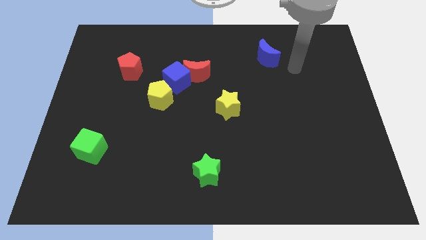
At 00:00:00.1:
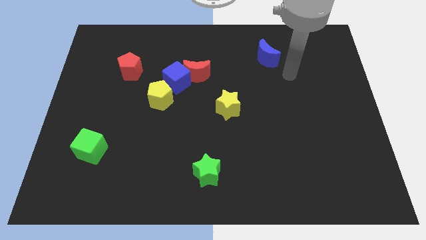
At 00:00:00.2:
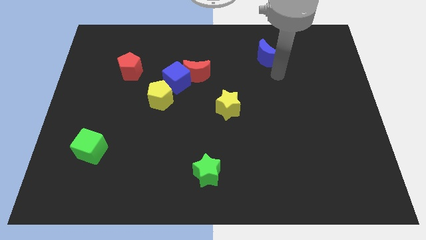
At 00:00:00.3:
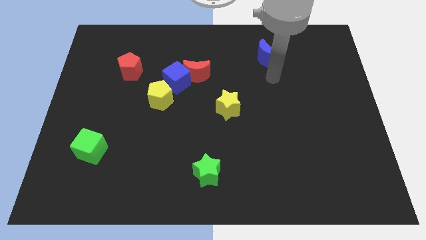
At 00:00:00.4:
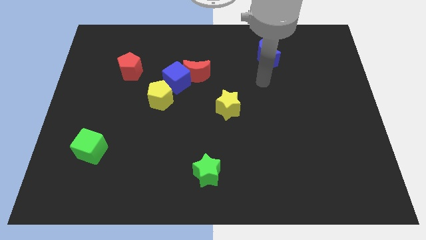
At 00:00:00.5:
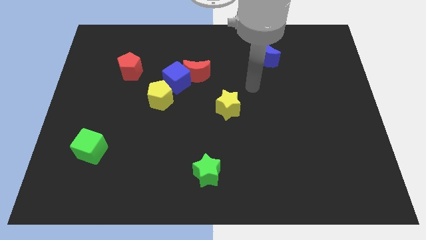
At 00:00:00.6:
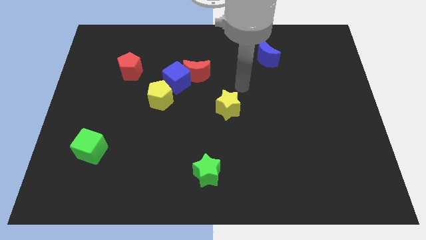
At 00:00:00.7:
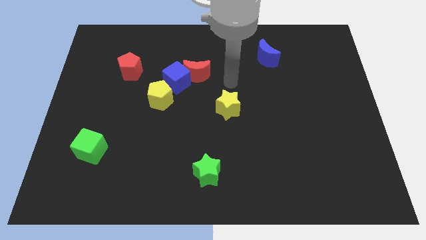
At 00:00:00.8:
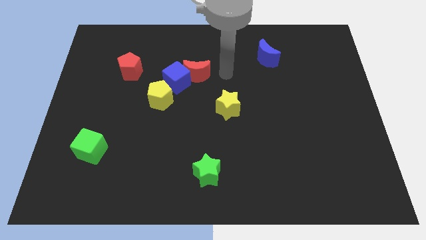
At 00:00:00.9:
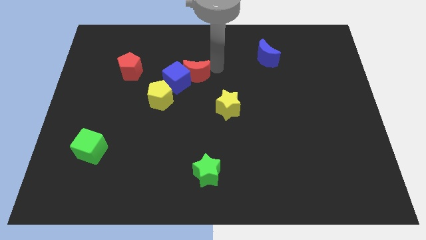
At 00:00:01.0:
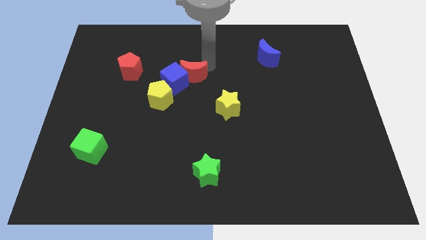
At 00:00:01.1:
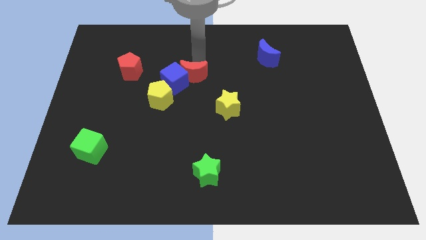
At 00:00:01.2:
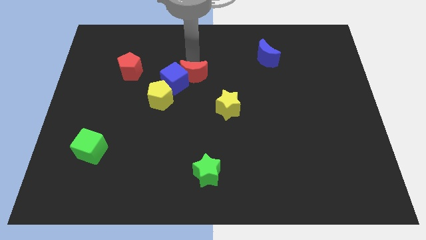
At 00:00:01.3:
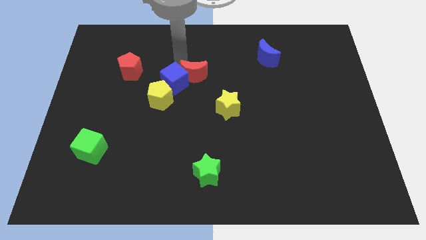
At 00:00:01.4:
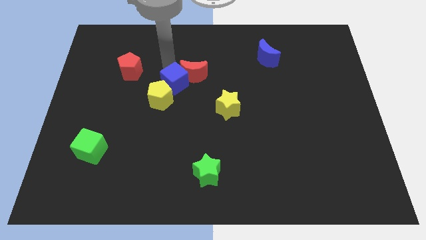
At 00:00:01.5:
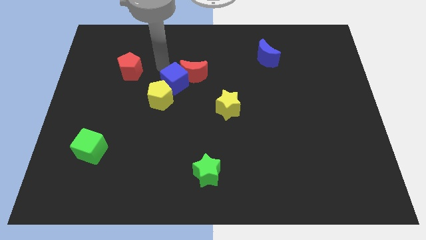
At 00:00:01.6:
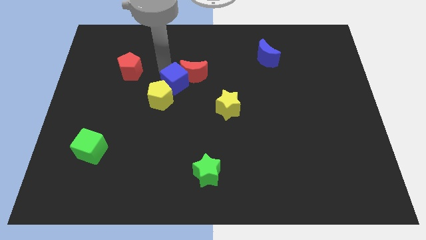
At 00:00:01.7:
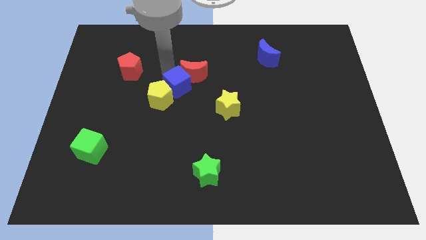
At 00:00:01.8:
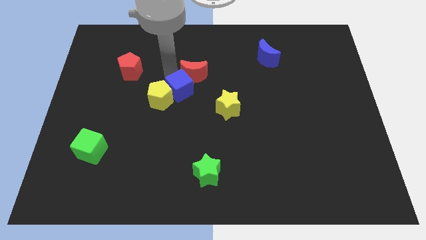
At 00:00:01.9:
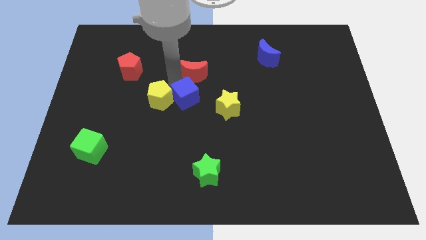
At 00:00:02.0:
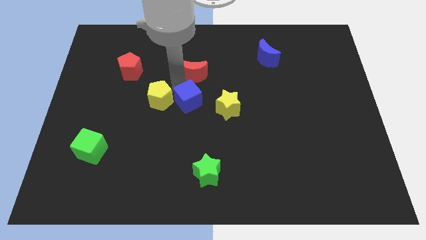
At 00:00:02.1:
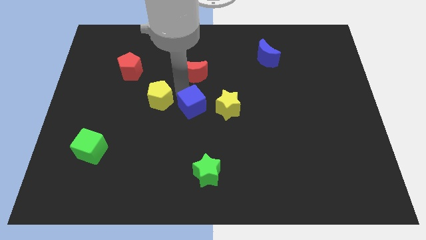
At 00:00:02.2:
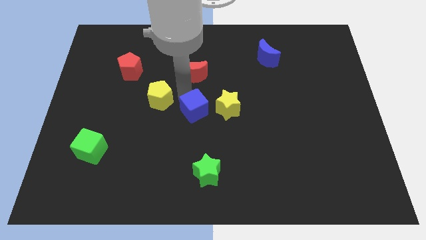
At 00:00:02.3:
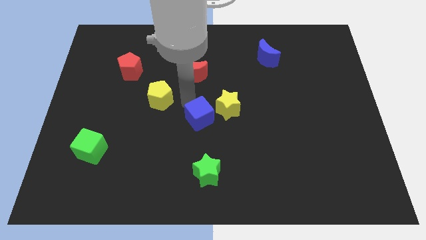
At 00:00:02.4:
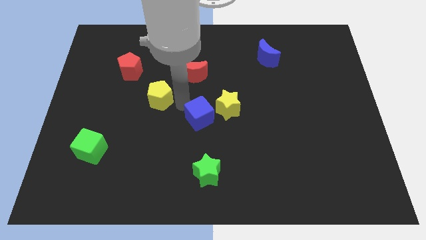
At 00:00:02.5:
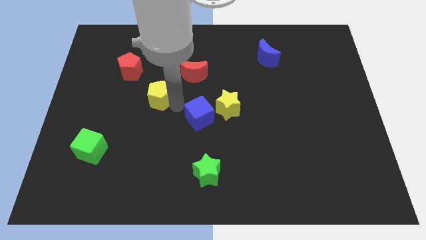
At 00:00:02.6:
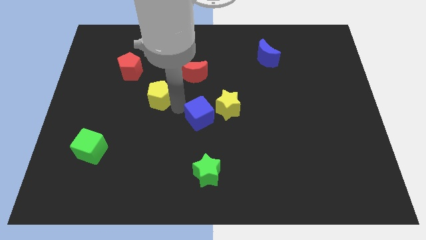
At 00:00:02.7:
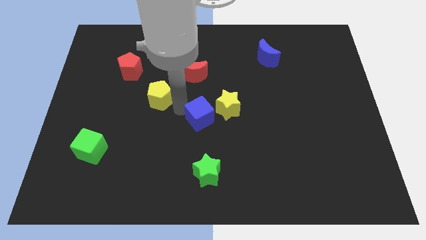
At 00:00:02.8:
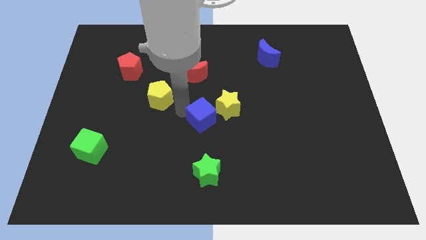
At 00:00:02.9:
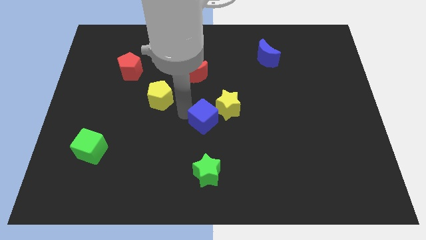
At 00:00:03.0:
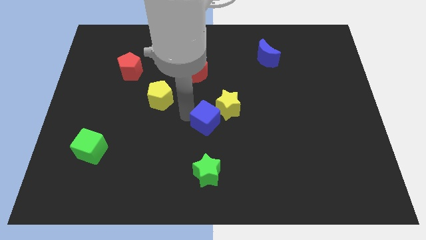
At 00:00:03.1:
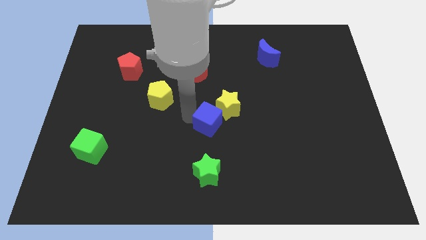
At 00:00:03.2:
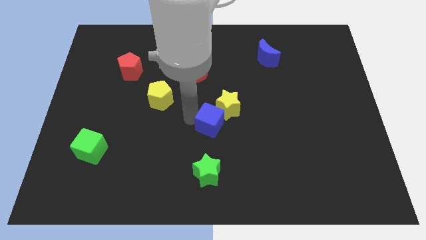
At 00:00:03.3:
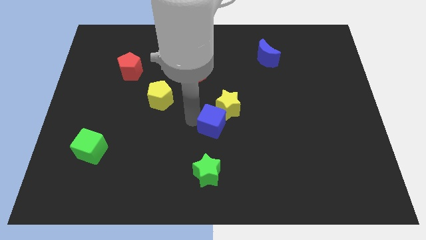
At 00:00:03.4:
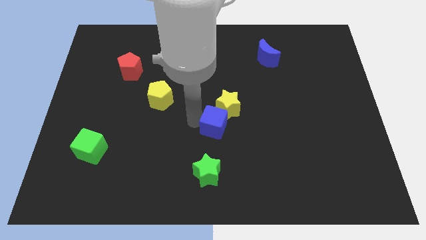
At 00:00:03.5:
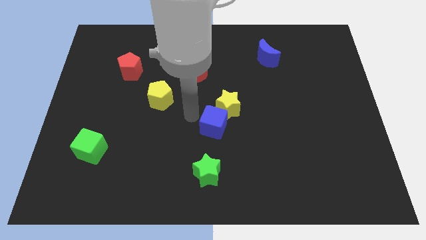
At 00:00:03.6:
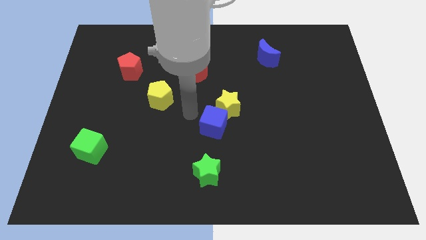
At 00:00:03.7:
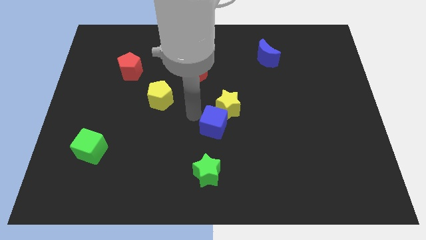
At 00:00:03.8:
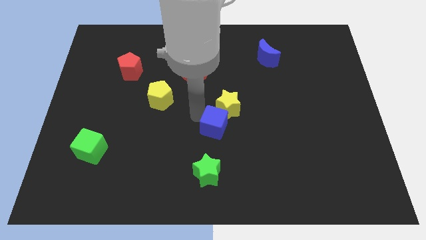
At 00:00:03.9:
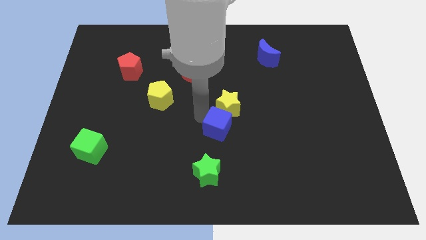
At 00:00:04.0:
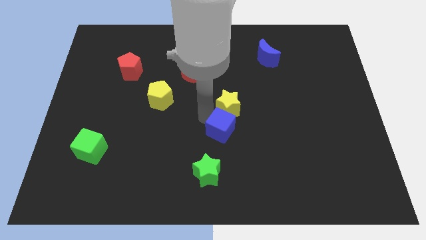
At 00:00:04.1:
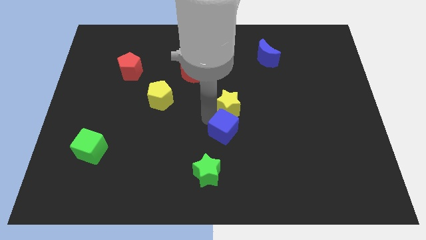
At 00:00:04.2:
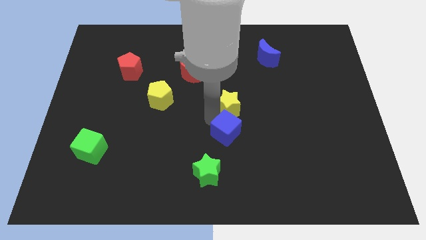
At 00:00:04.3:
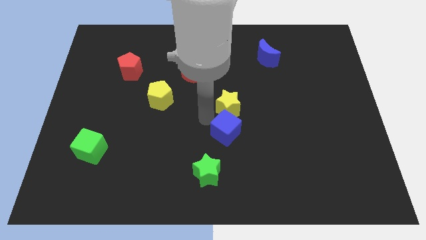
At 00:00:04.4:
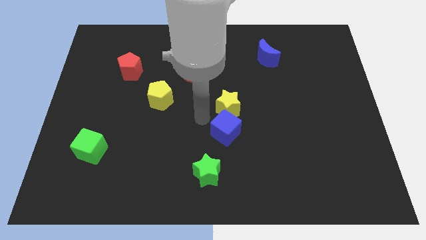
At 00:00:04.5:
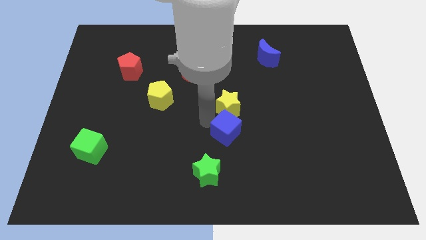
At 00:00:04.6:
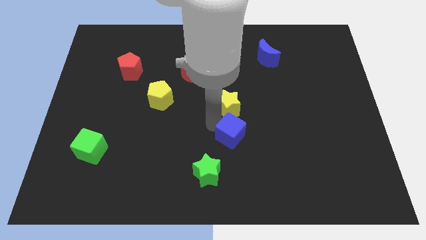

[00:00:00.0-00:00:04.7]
move the blue cube downwards and then right

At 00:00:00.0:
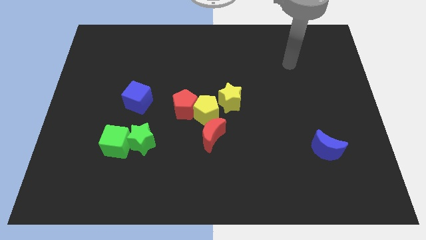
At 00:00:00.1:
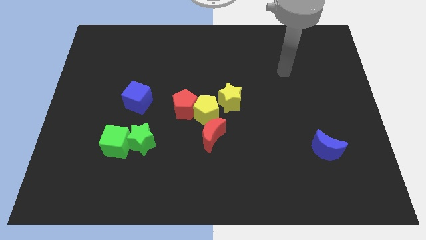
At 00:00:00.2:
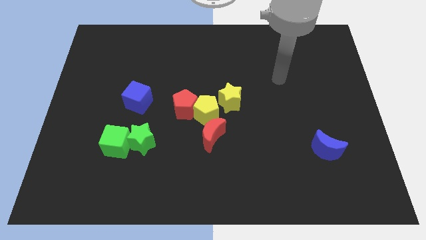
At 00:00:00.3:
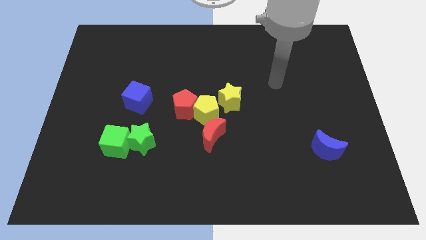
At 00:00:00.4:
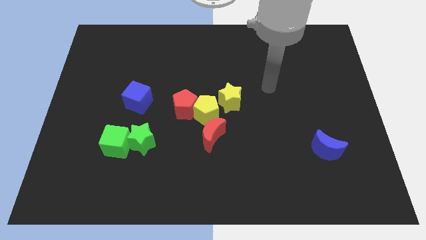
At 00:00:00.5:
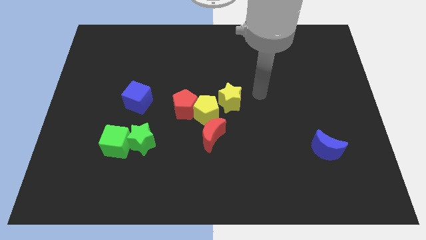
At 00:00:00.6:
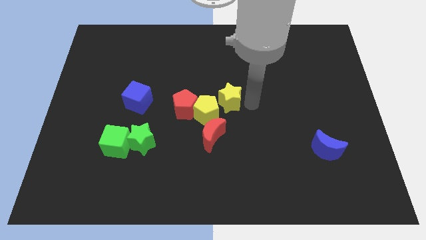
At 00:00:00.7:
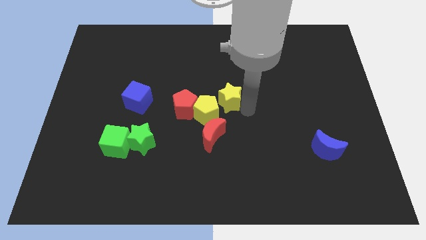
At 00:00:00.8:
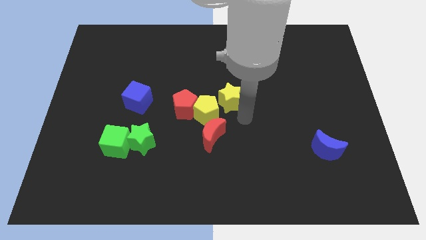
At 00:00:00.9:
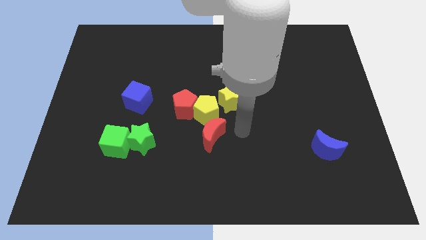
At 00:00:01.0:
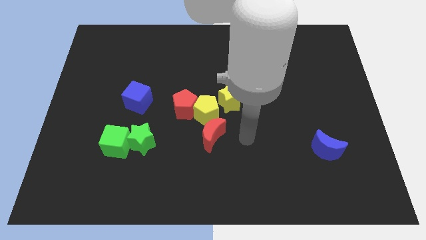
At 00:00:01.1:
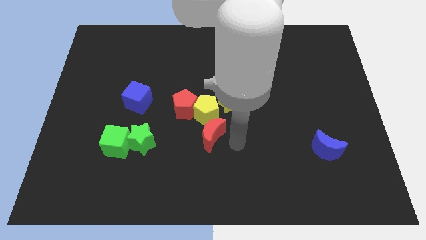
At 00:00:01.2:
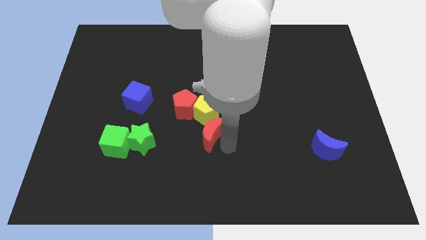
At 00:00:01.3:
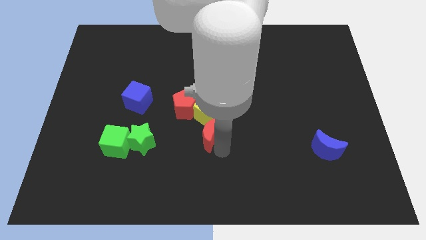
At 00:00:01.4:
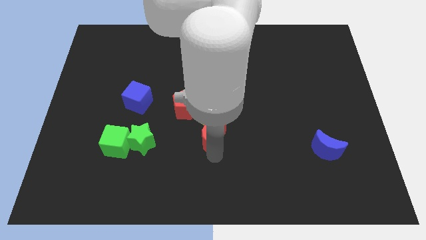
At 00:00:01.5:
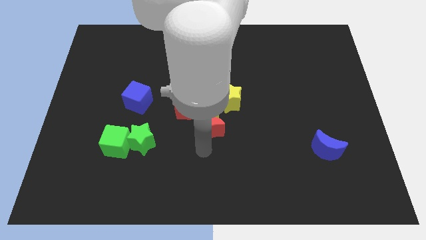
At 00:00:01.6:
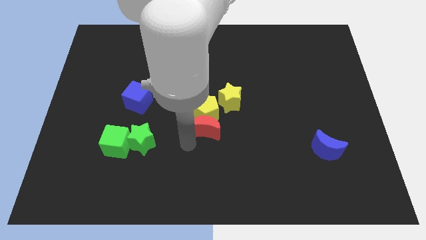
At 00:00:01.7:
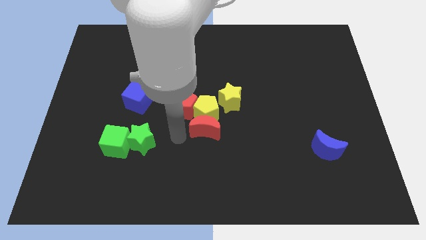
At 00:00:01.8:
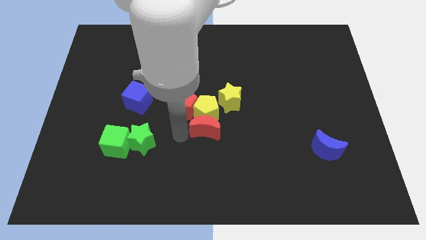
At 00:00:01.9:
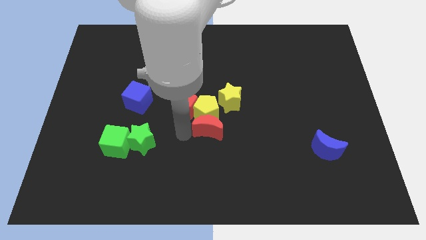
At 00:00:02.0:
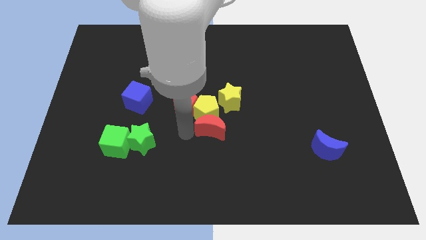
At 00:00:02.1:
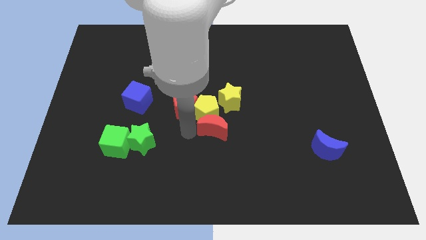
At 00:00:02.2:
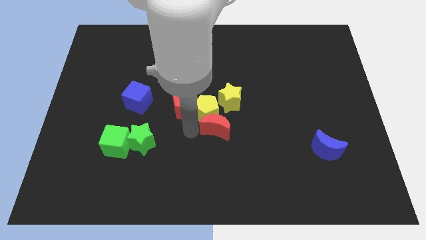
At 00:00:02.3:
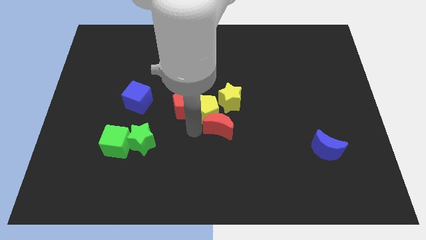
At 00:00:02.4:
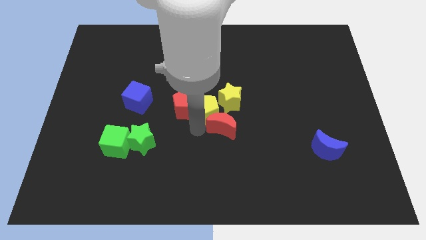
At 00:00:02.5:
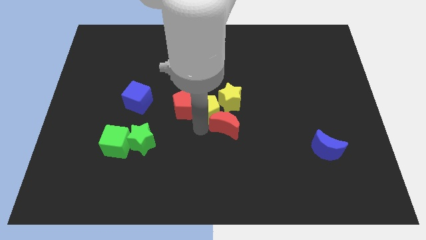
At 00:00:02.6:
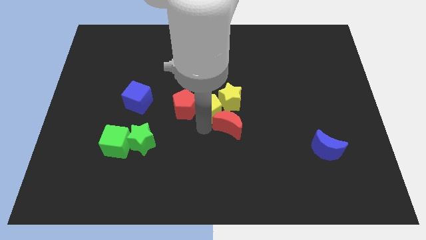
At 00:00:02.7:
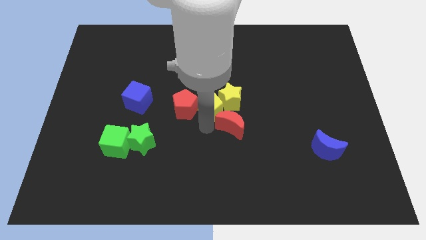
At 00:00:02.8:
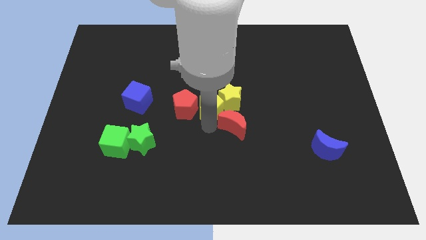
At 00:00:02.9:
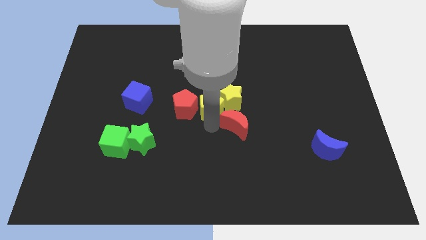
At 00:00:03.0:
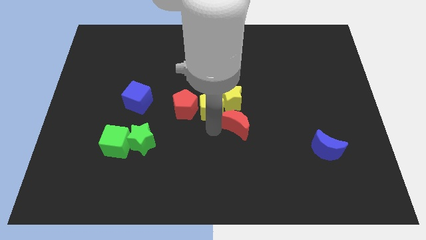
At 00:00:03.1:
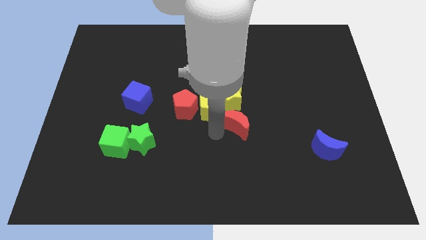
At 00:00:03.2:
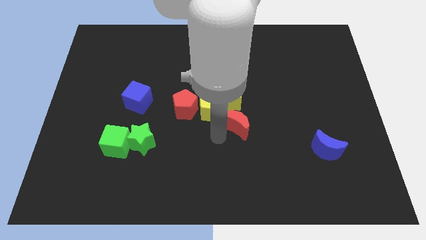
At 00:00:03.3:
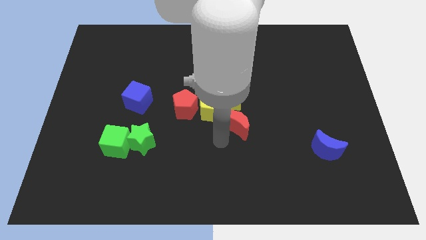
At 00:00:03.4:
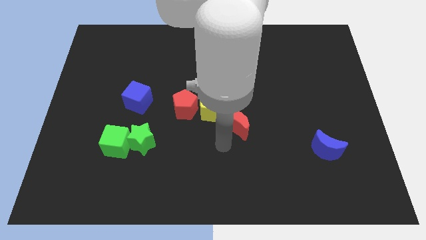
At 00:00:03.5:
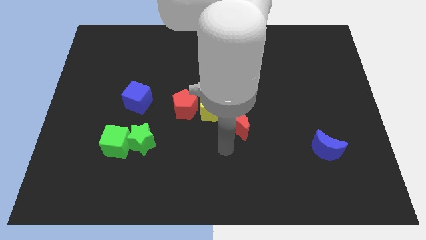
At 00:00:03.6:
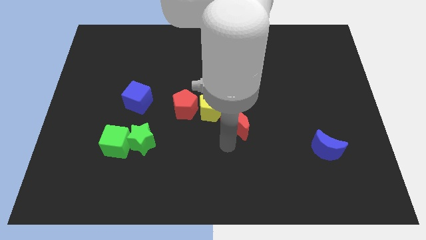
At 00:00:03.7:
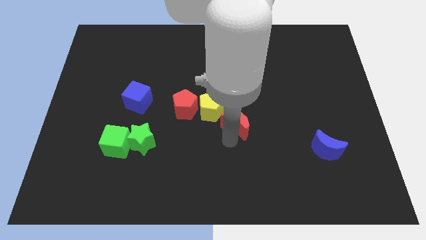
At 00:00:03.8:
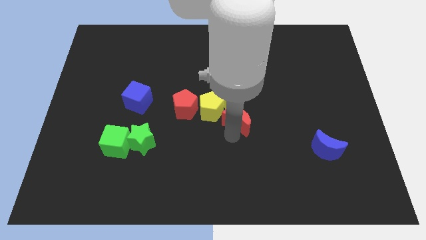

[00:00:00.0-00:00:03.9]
slightly push the red moon up and right
